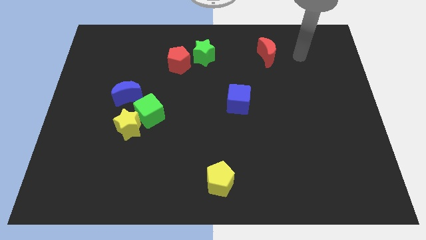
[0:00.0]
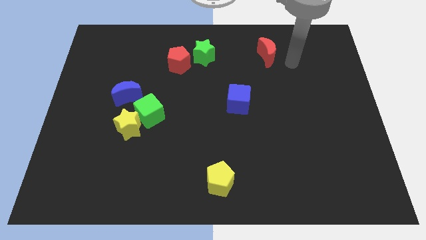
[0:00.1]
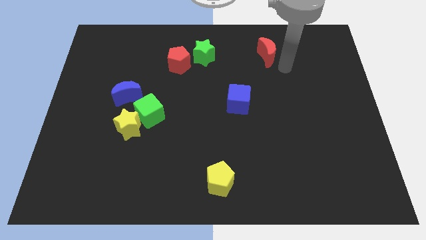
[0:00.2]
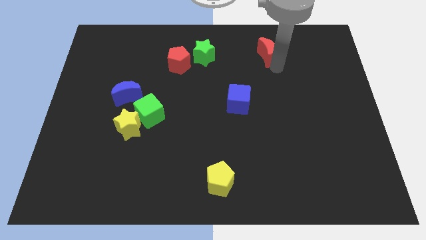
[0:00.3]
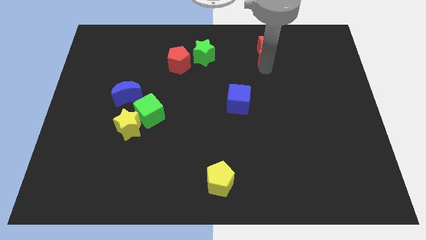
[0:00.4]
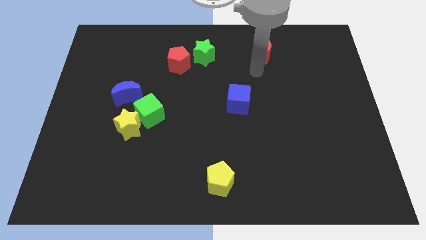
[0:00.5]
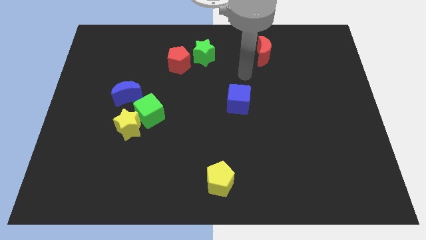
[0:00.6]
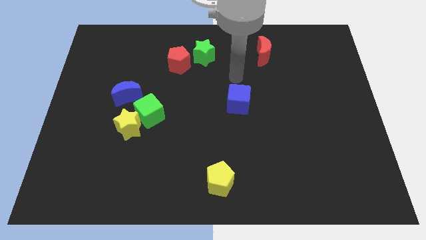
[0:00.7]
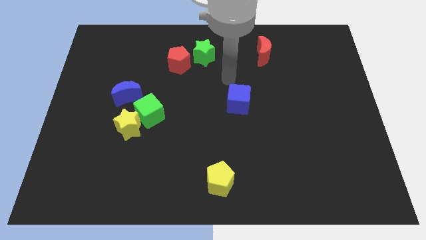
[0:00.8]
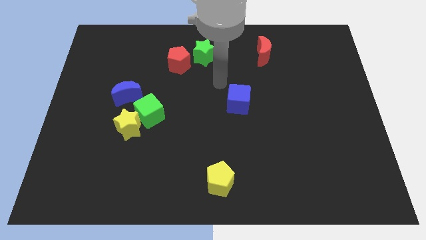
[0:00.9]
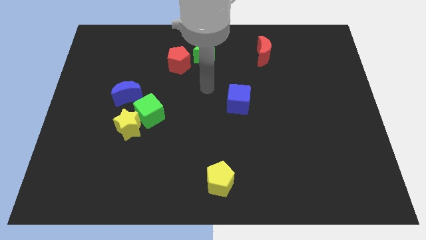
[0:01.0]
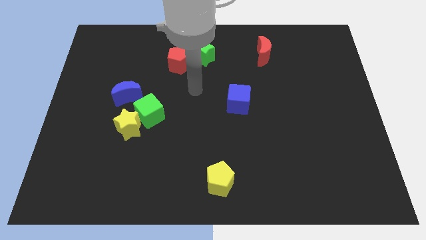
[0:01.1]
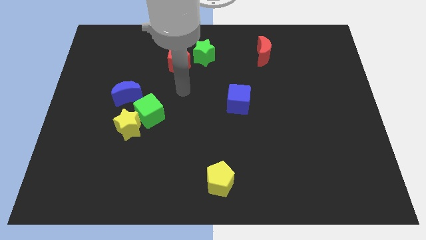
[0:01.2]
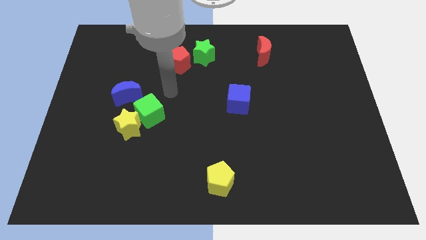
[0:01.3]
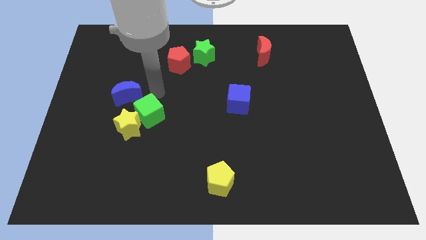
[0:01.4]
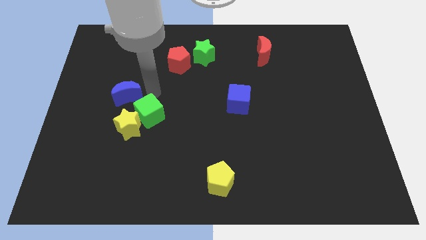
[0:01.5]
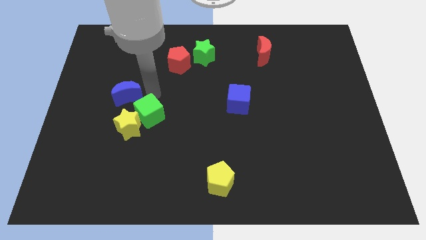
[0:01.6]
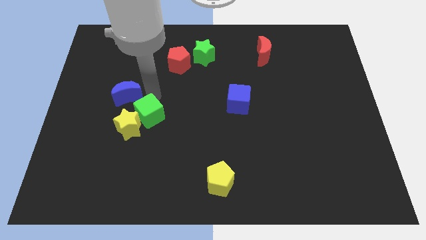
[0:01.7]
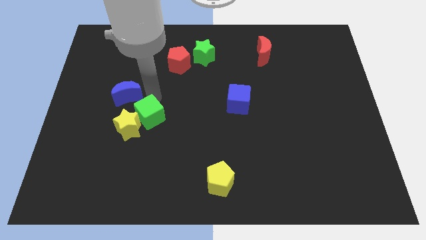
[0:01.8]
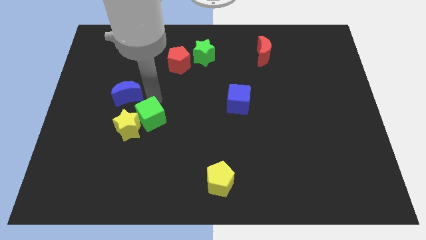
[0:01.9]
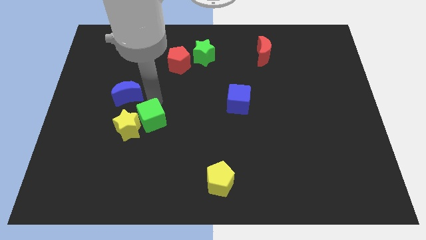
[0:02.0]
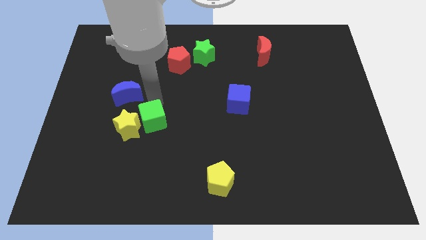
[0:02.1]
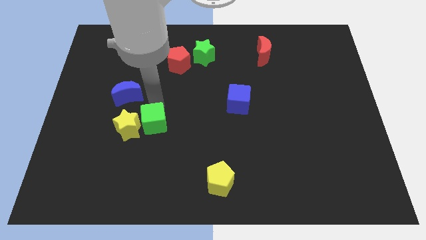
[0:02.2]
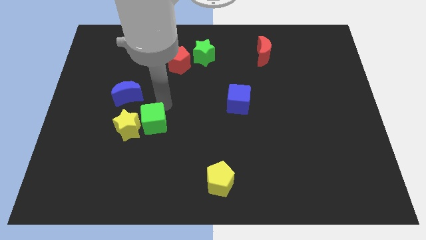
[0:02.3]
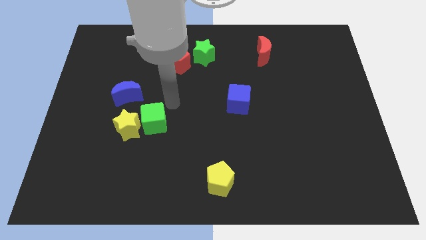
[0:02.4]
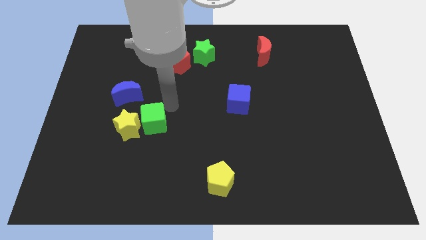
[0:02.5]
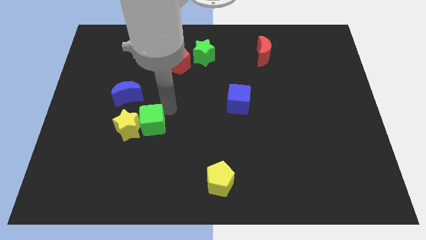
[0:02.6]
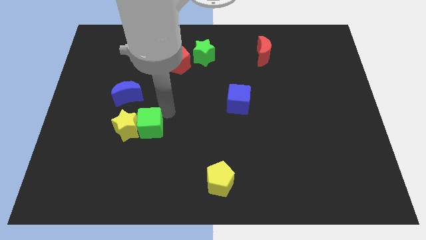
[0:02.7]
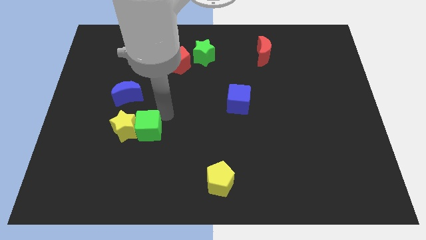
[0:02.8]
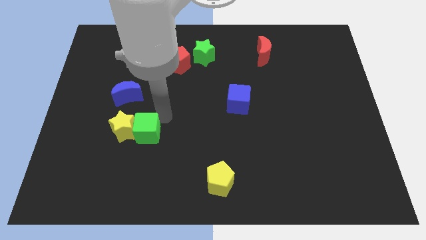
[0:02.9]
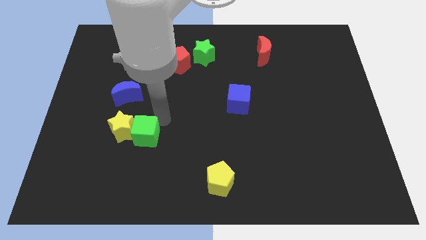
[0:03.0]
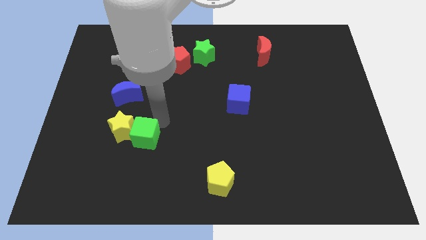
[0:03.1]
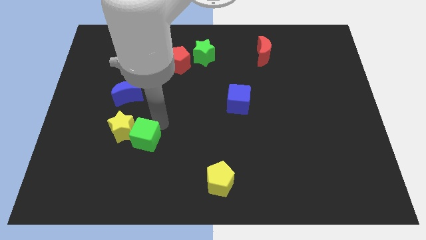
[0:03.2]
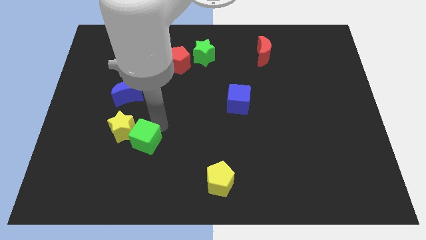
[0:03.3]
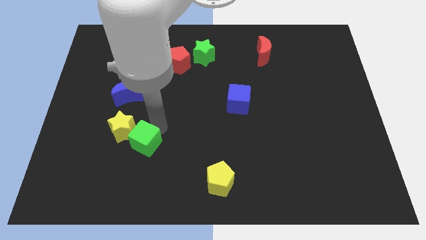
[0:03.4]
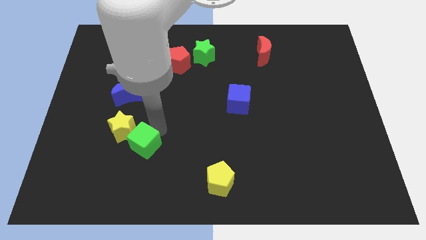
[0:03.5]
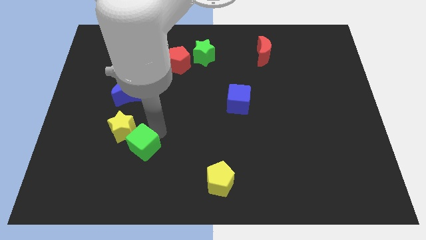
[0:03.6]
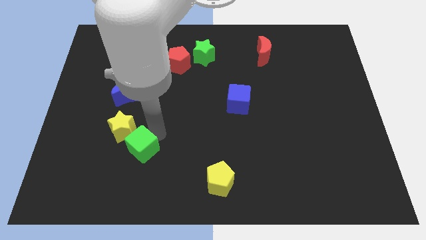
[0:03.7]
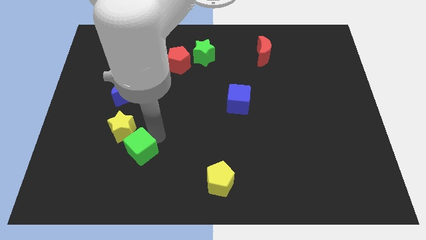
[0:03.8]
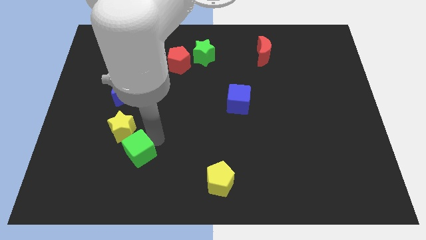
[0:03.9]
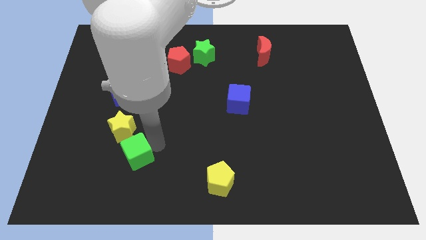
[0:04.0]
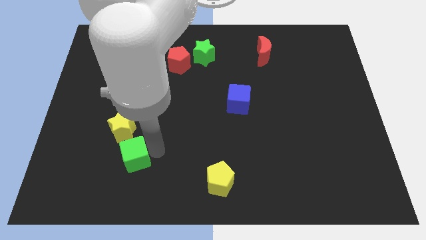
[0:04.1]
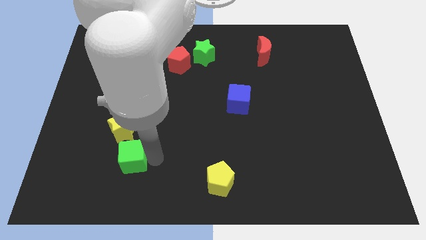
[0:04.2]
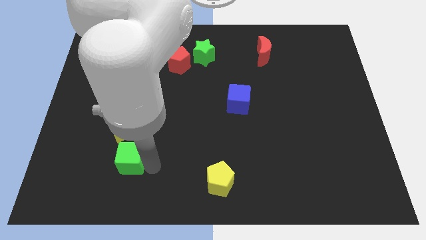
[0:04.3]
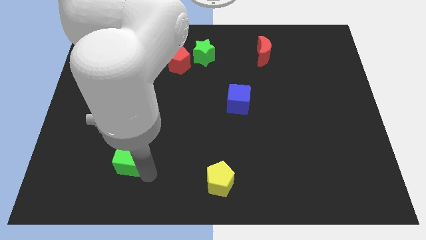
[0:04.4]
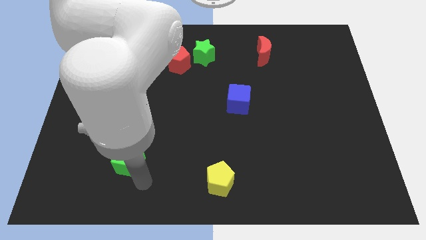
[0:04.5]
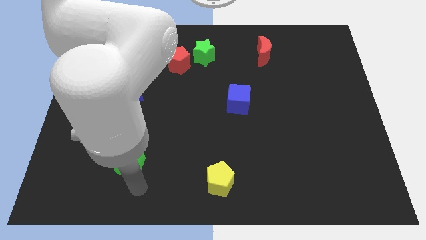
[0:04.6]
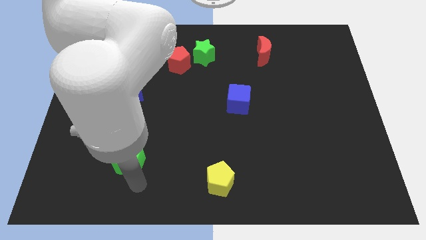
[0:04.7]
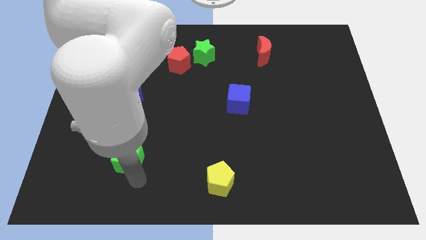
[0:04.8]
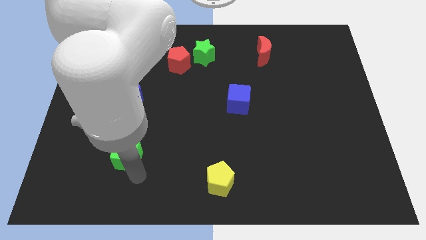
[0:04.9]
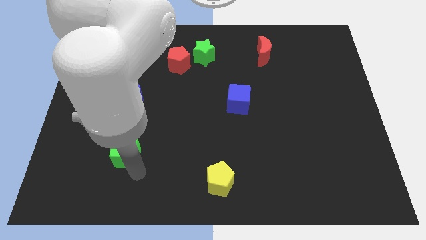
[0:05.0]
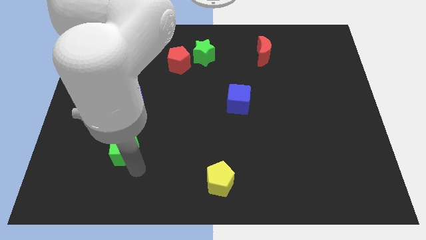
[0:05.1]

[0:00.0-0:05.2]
push the green cube below the blue moon

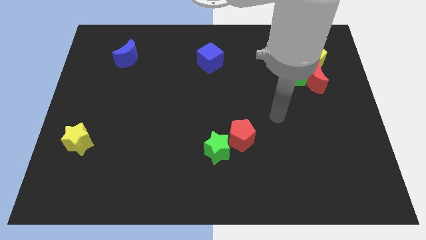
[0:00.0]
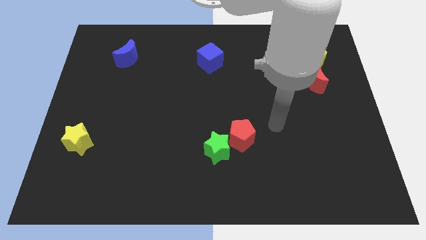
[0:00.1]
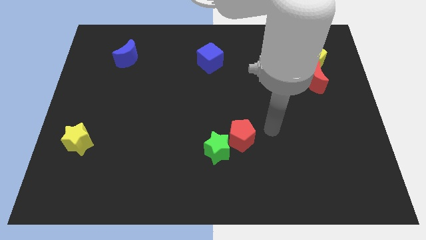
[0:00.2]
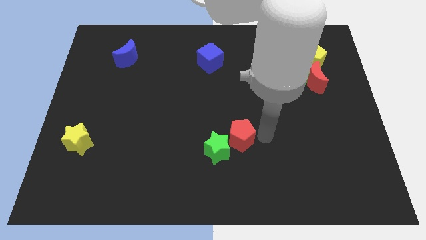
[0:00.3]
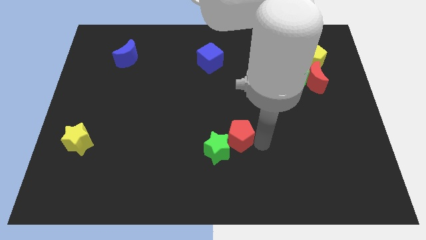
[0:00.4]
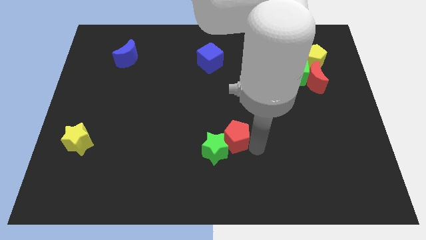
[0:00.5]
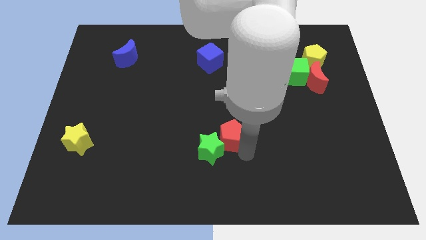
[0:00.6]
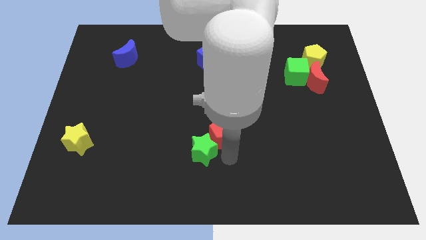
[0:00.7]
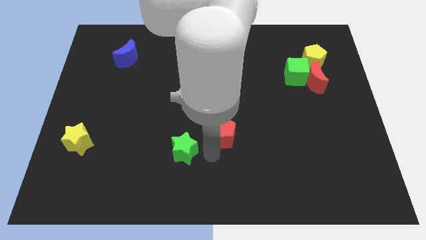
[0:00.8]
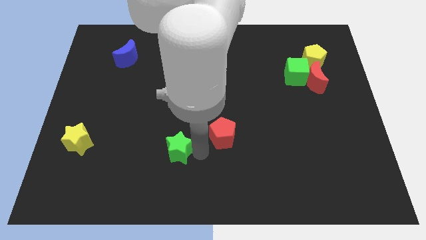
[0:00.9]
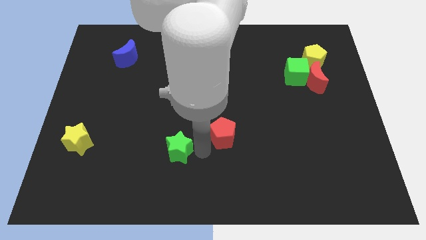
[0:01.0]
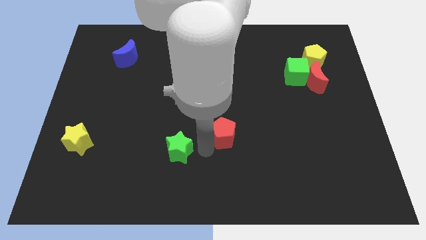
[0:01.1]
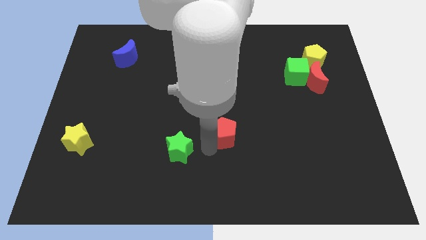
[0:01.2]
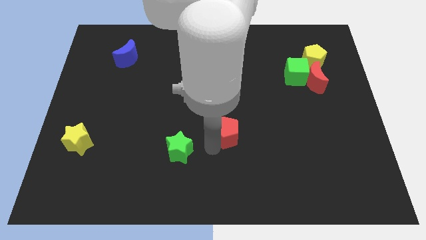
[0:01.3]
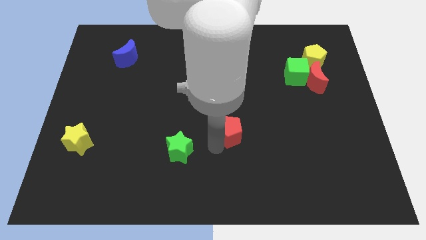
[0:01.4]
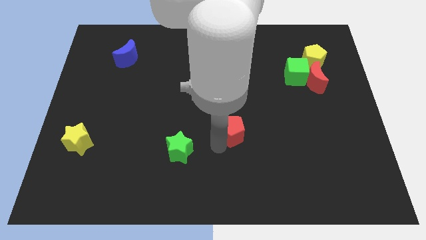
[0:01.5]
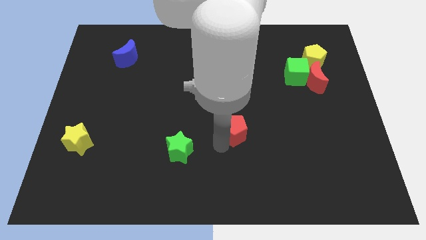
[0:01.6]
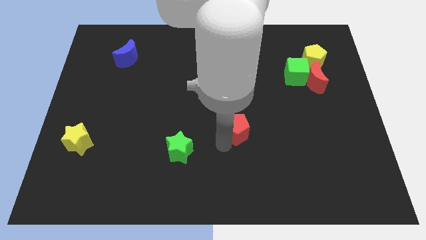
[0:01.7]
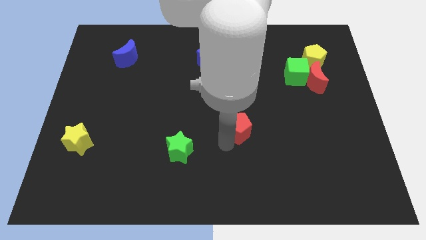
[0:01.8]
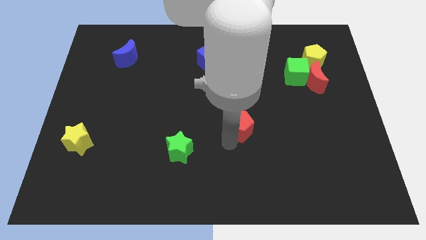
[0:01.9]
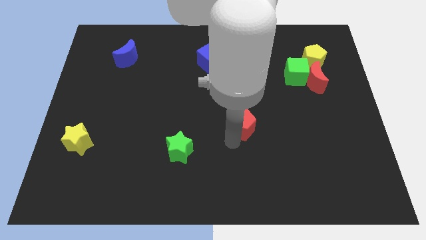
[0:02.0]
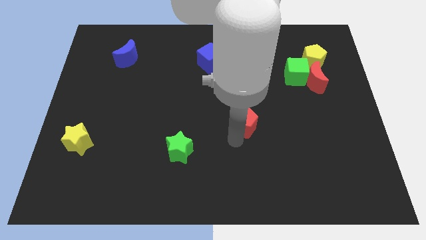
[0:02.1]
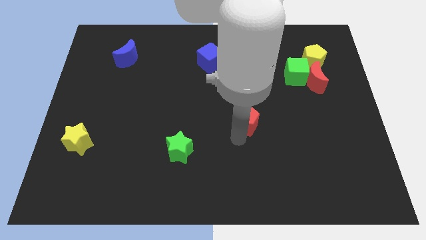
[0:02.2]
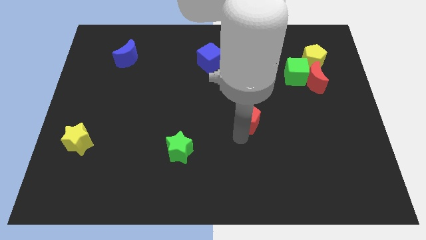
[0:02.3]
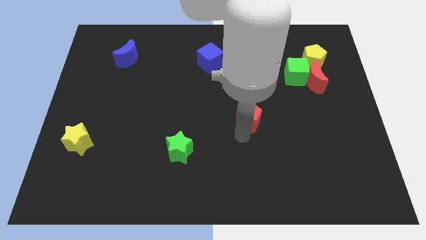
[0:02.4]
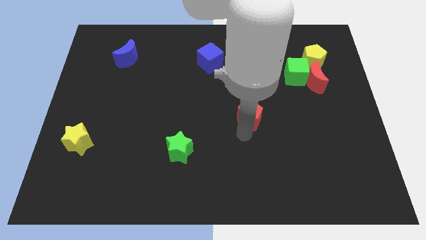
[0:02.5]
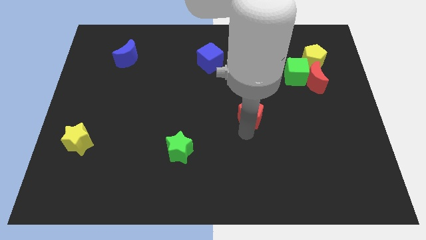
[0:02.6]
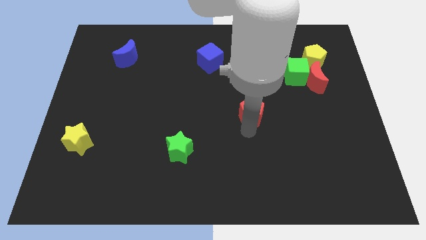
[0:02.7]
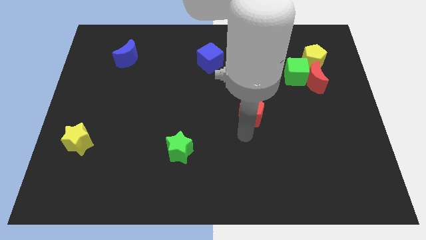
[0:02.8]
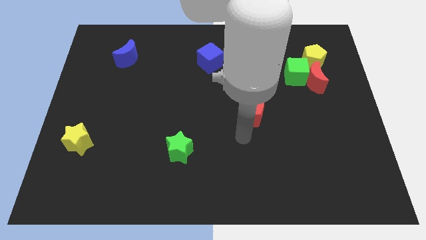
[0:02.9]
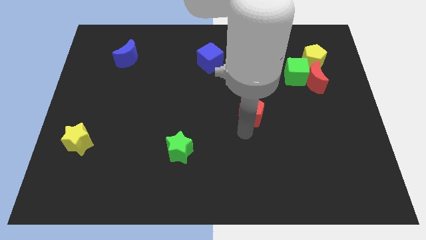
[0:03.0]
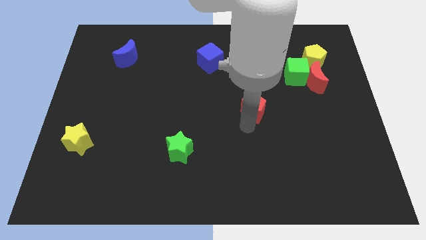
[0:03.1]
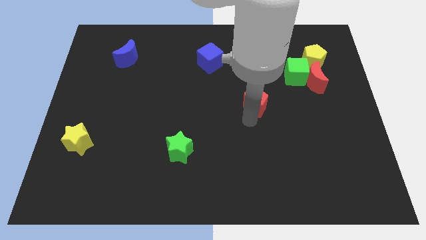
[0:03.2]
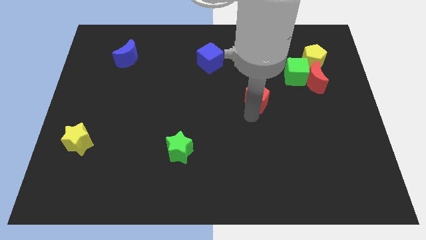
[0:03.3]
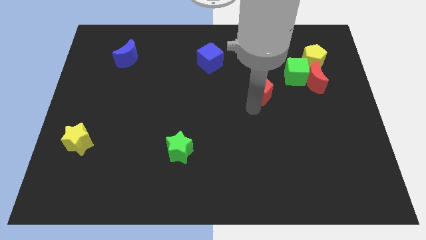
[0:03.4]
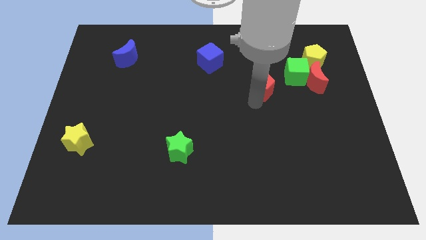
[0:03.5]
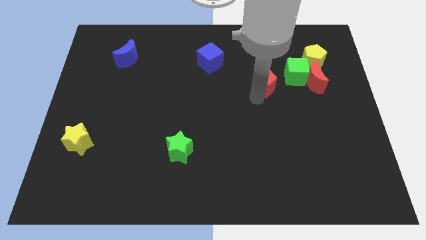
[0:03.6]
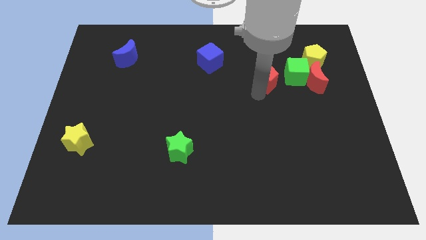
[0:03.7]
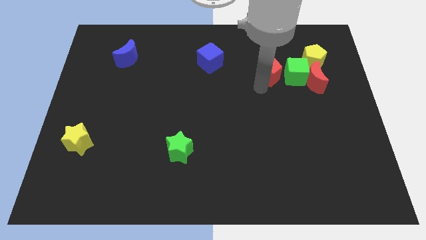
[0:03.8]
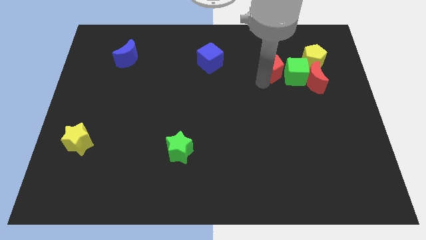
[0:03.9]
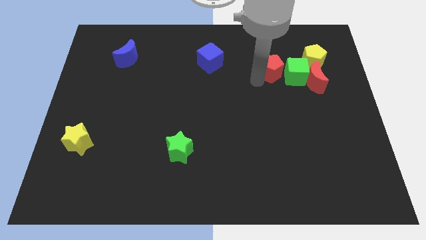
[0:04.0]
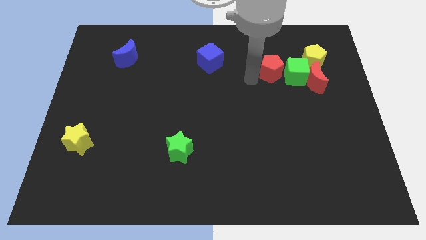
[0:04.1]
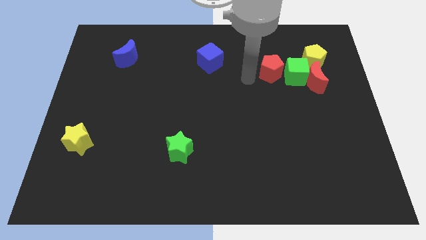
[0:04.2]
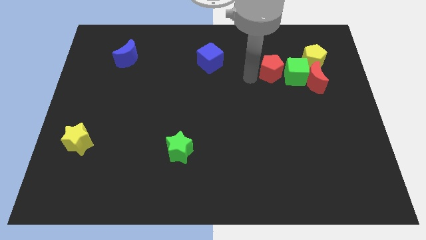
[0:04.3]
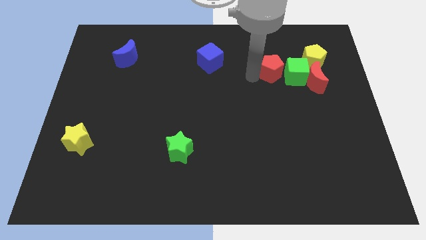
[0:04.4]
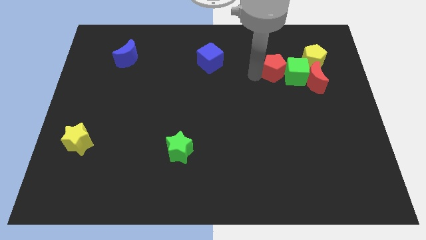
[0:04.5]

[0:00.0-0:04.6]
put the red pentagon to the top left side of the red moon
